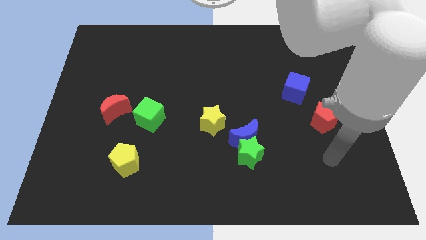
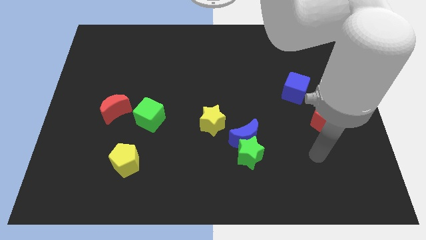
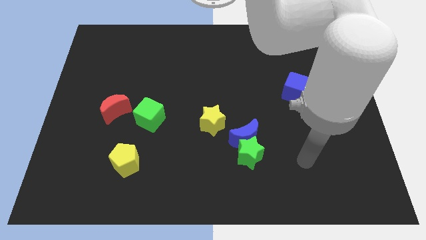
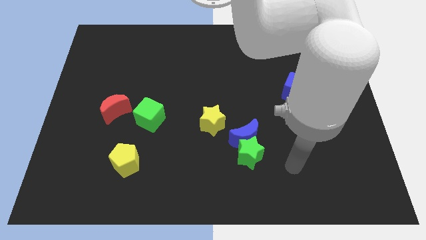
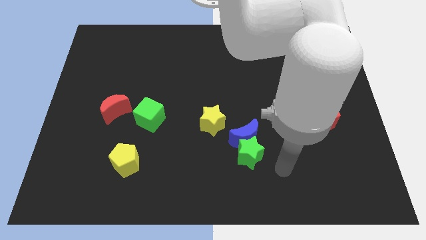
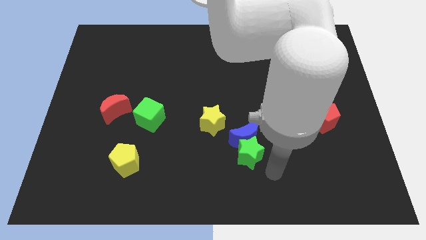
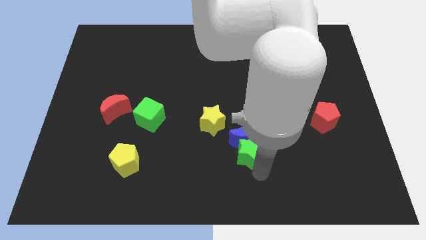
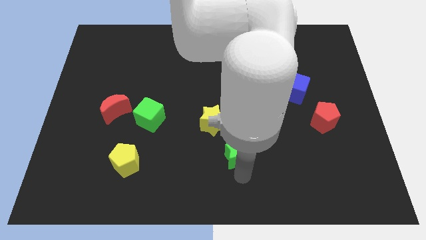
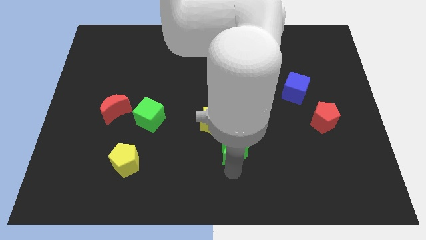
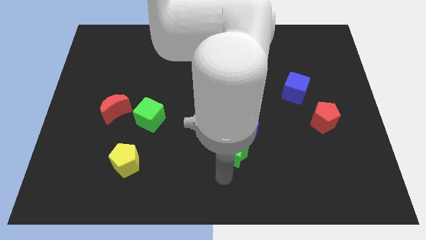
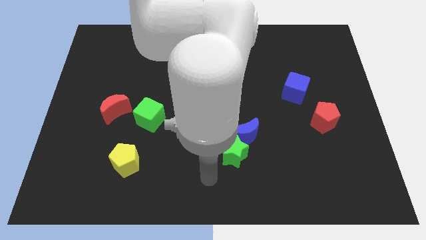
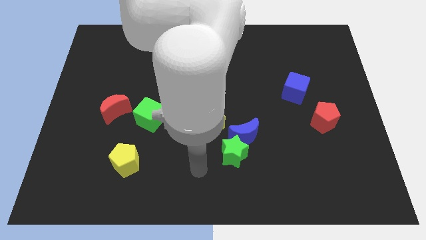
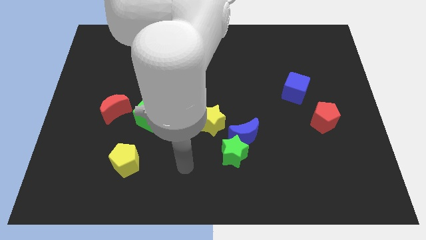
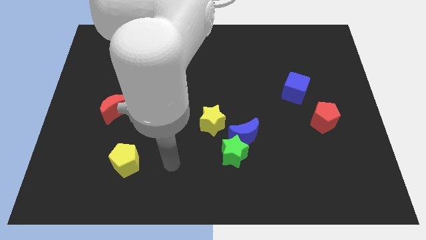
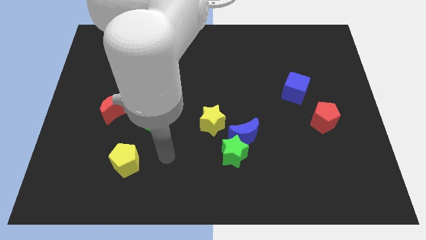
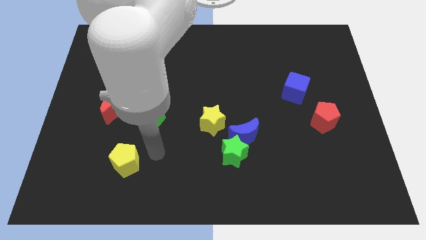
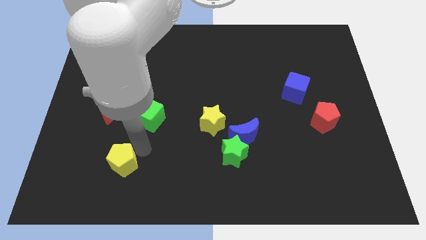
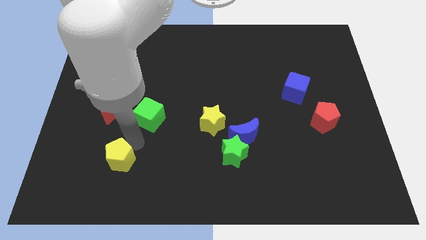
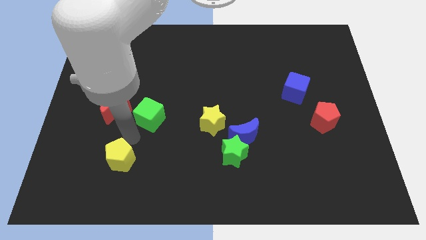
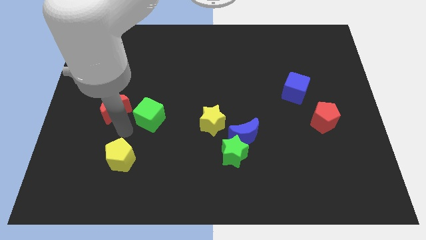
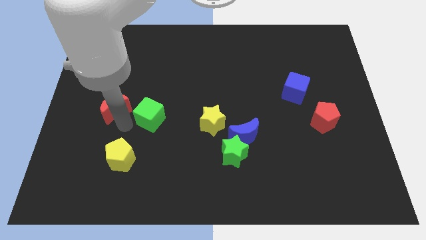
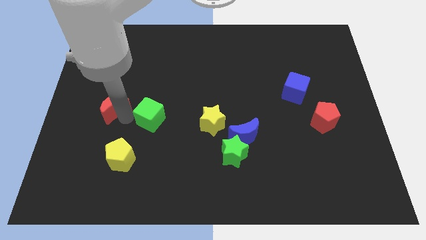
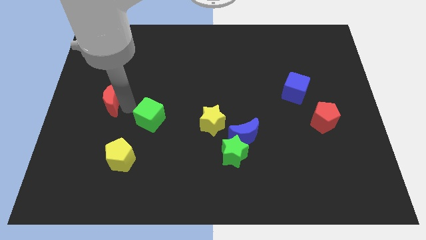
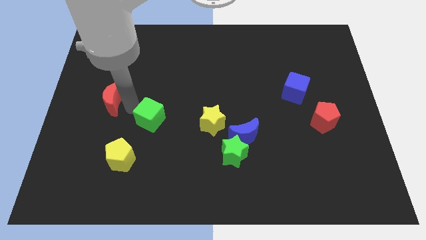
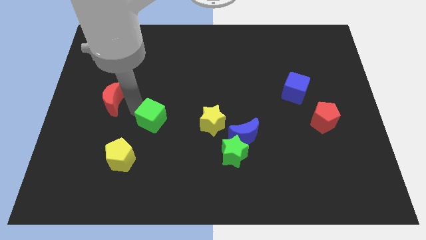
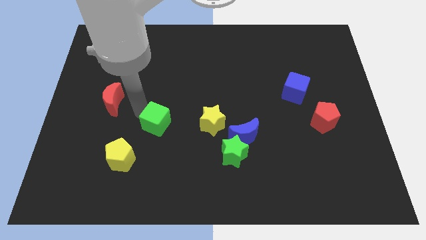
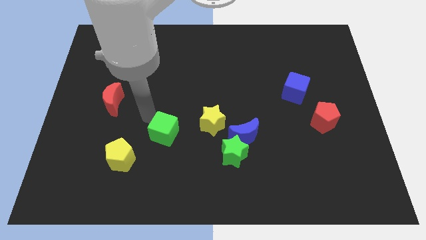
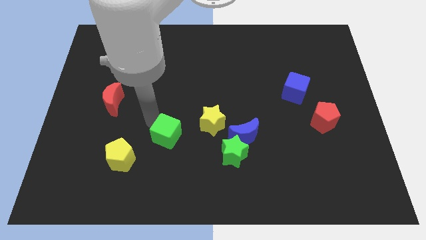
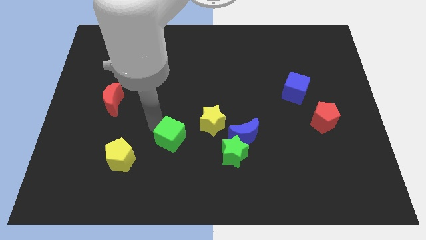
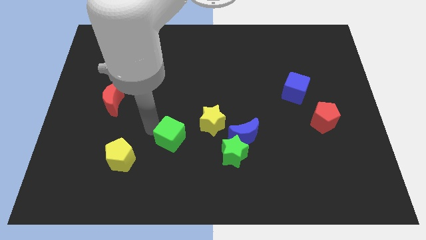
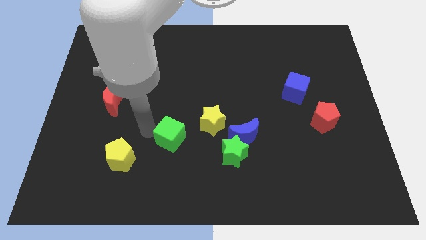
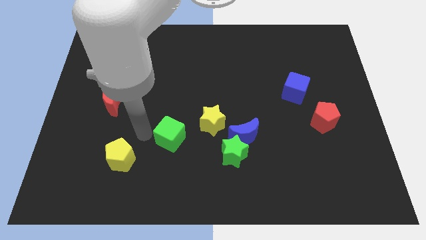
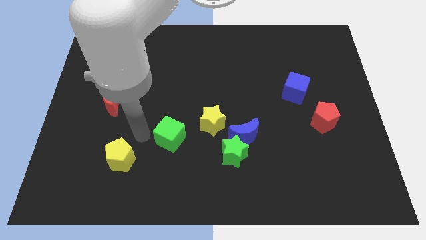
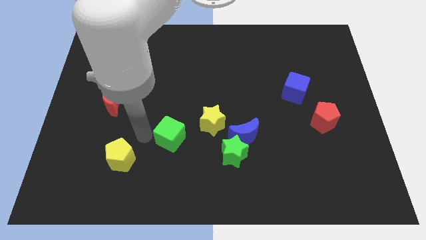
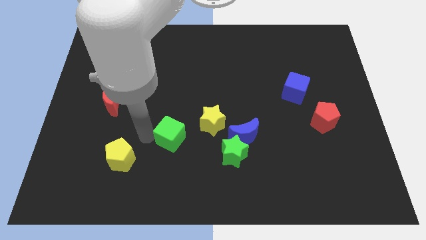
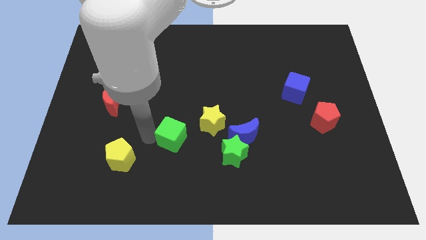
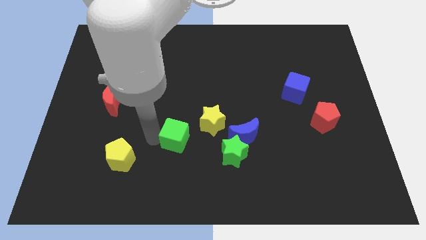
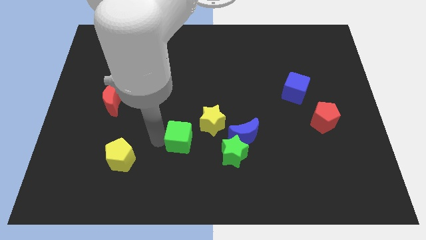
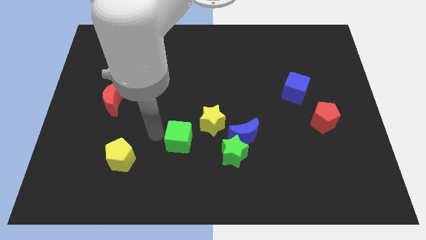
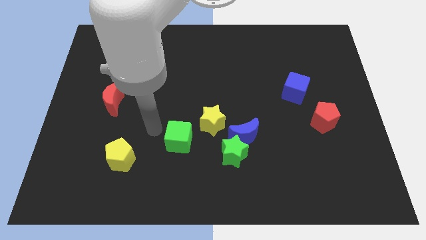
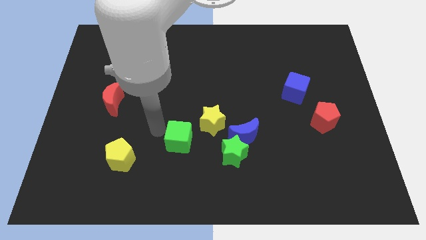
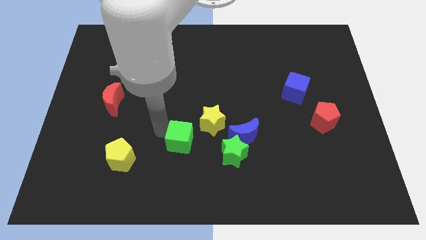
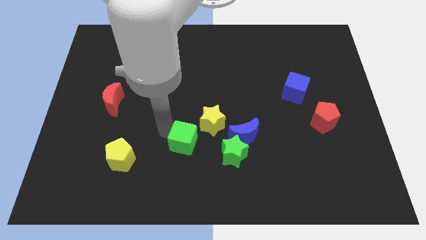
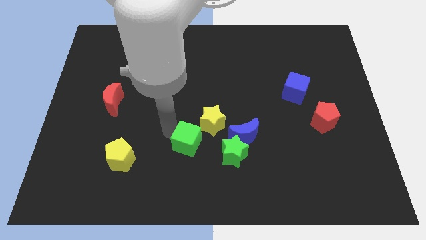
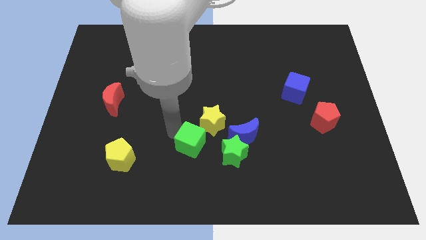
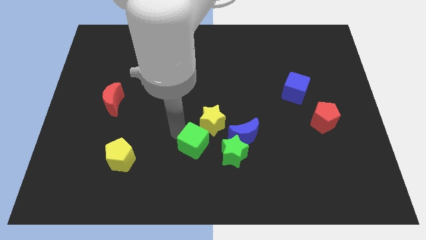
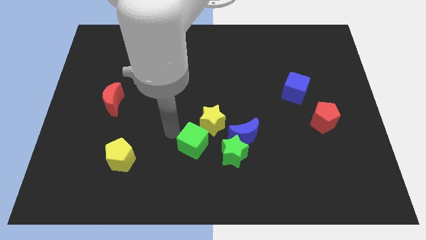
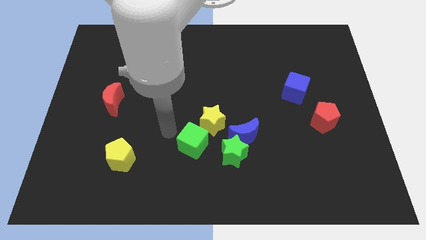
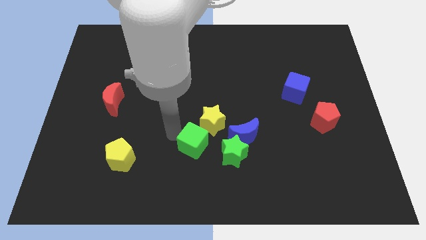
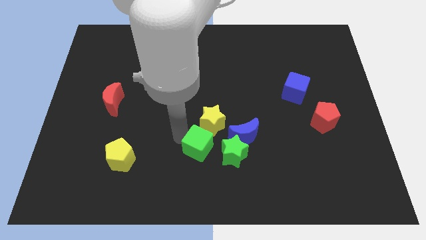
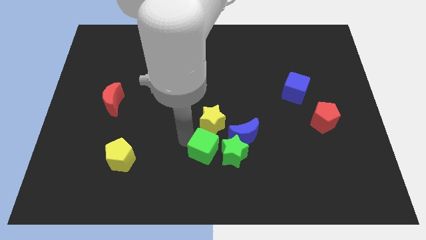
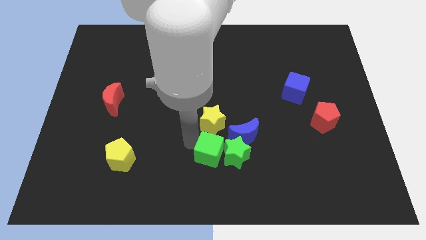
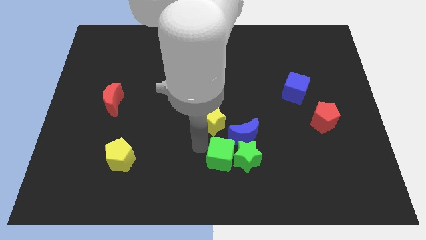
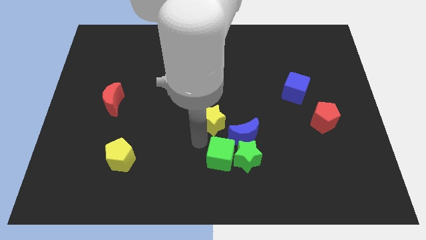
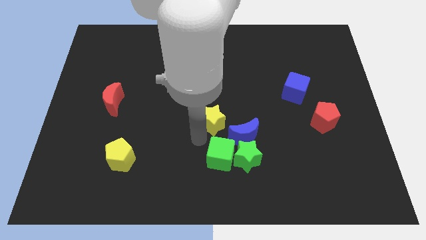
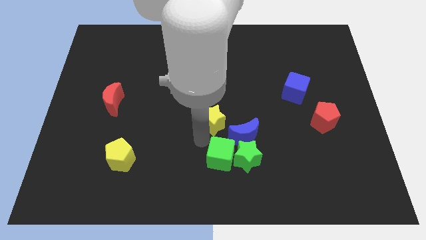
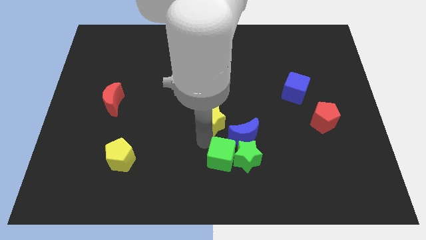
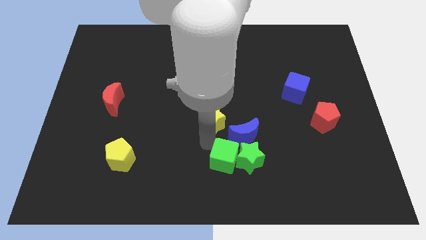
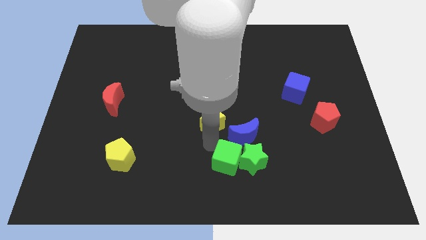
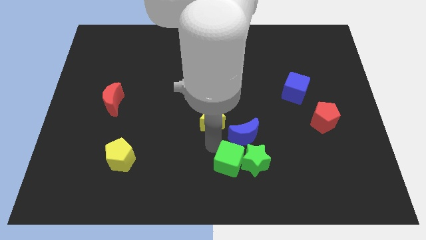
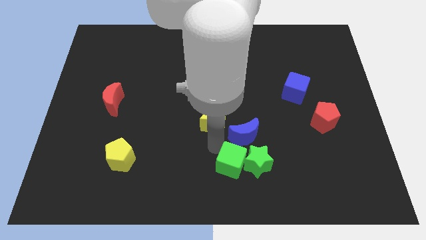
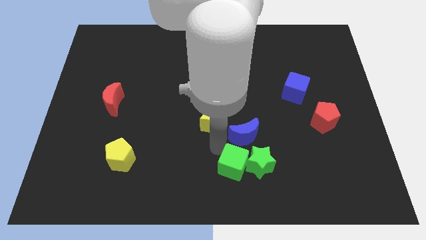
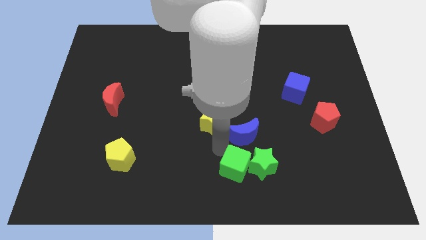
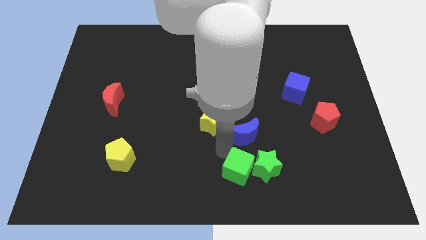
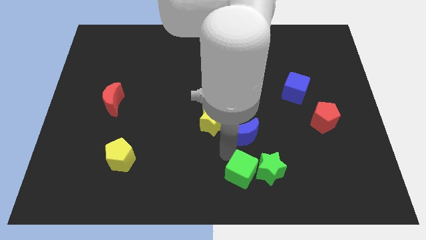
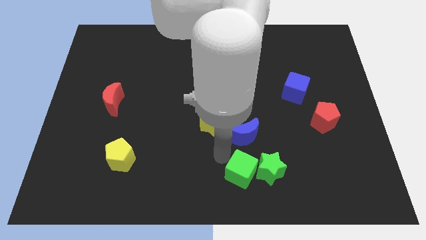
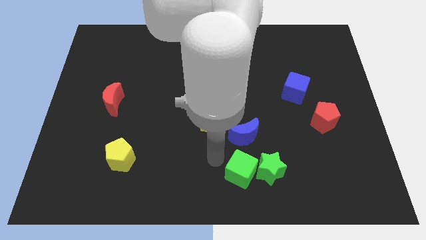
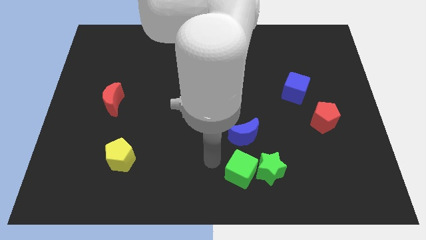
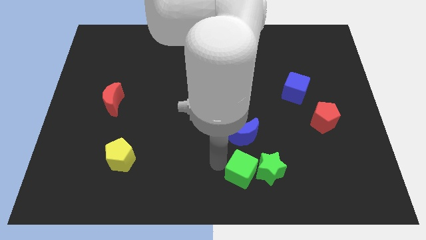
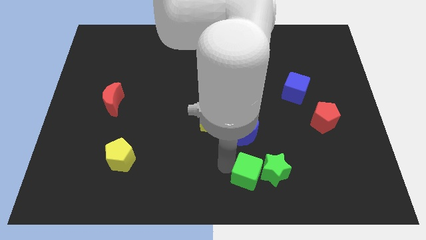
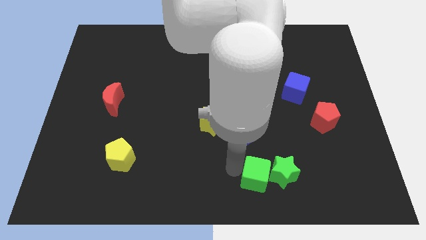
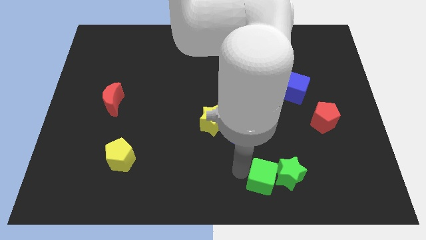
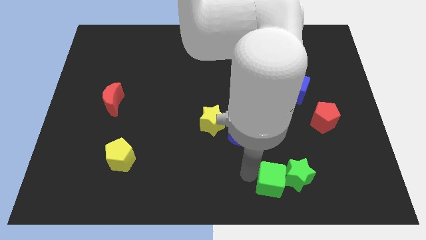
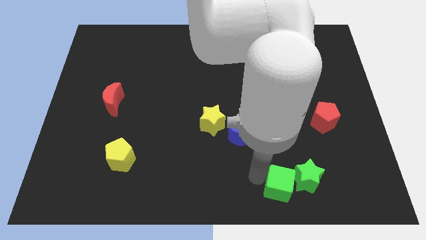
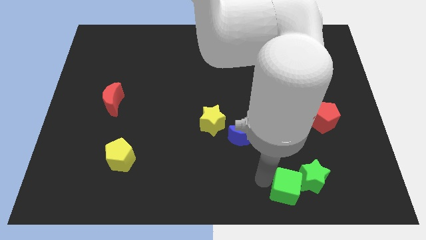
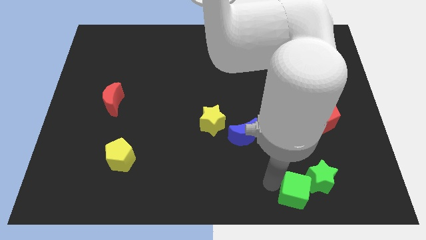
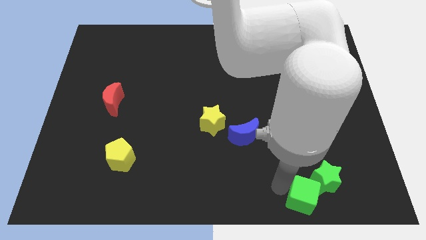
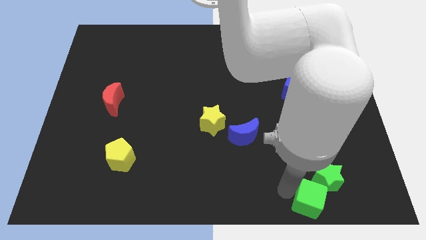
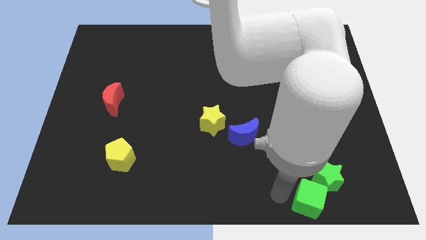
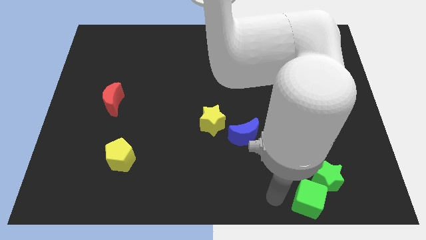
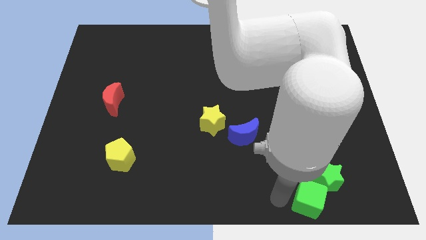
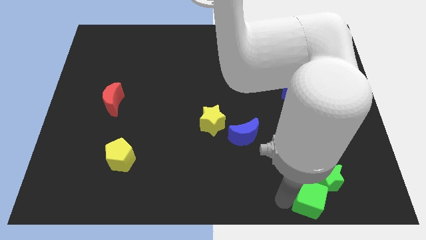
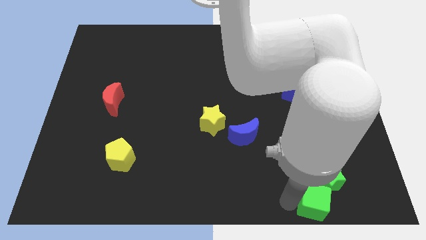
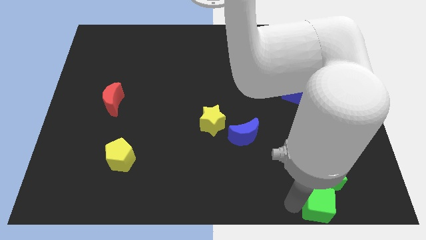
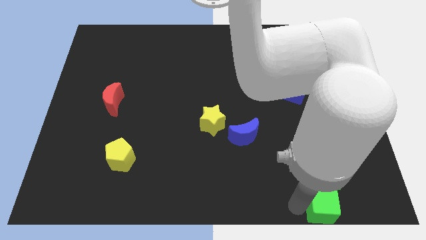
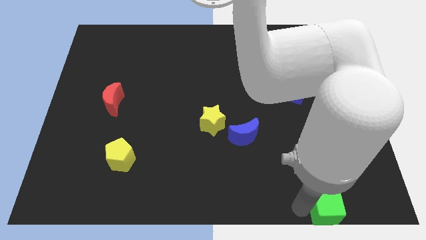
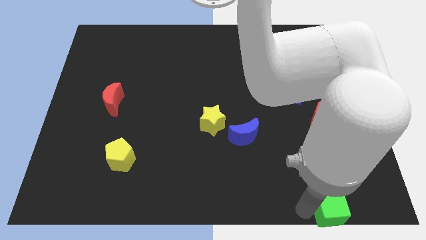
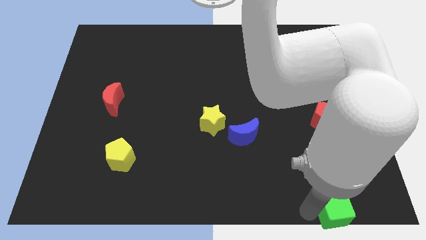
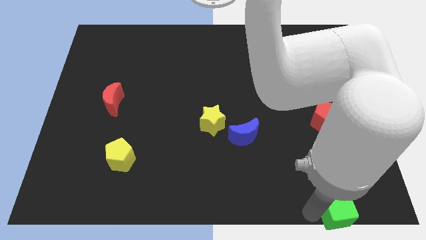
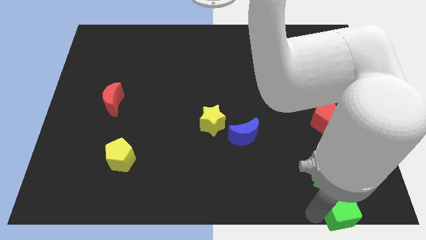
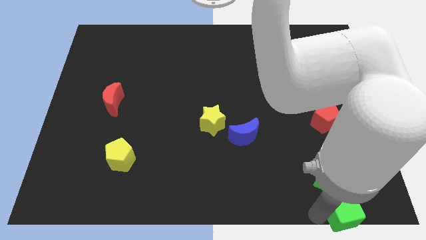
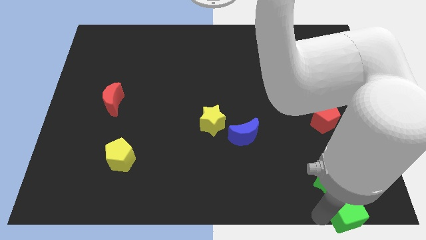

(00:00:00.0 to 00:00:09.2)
put the green cube to the bottom right
